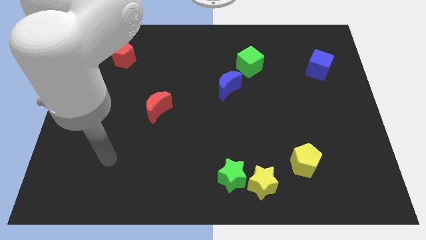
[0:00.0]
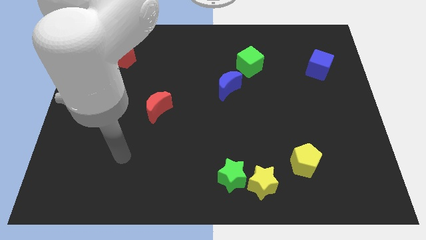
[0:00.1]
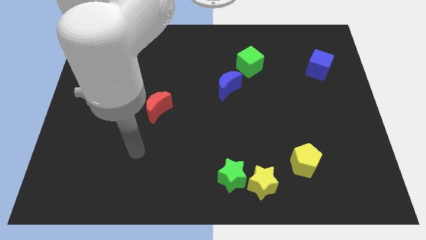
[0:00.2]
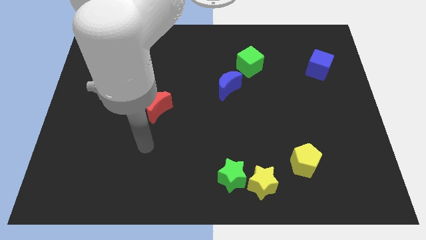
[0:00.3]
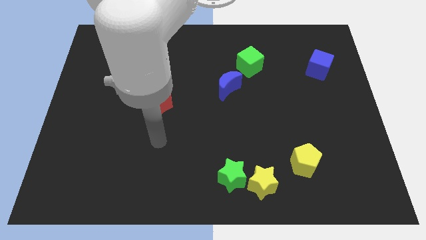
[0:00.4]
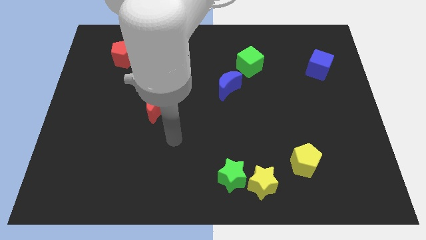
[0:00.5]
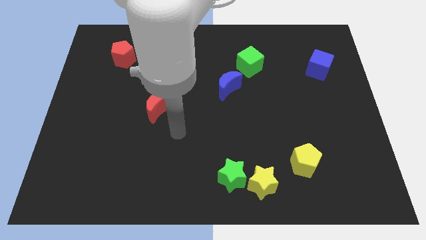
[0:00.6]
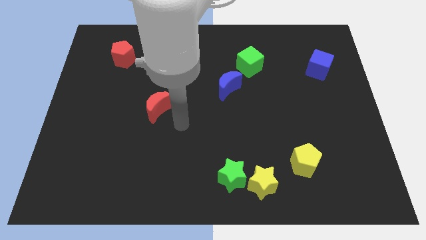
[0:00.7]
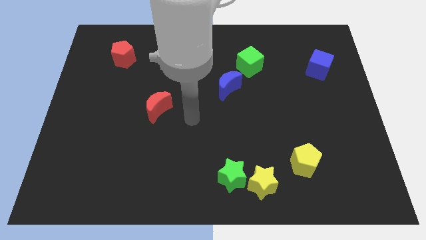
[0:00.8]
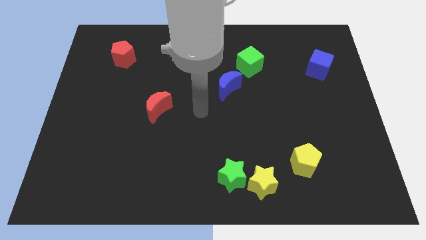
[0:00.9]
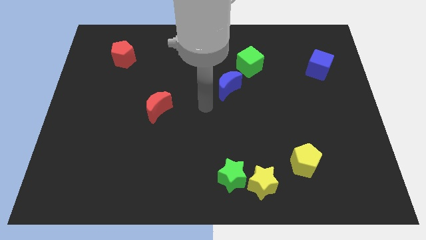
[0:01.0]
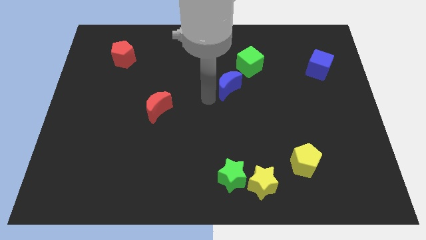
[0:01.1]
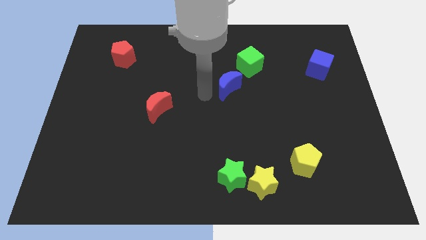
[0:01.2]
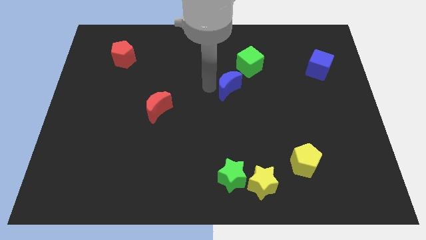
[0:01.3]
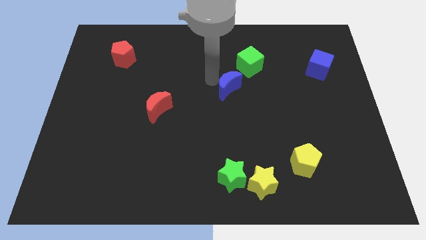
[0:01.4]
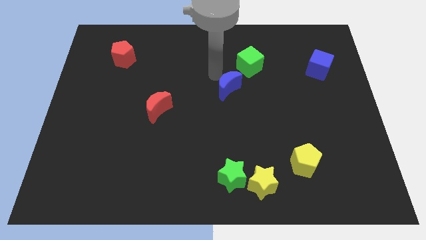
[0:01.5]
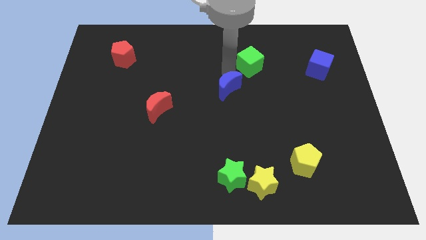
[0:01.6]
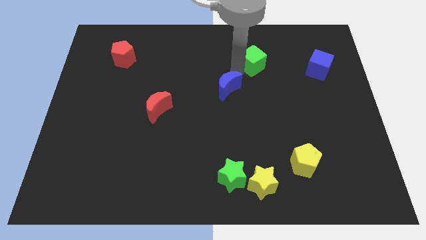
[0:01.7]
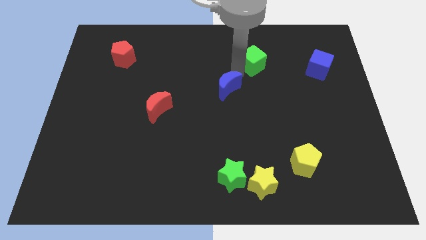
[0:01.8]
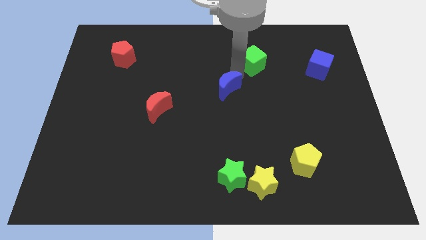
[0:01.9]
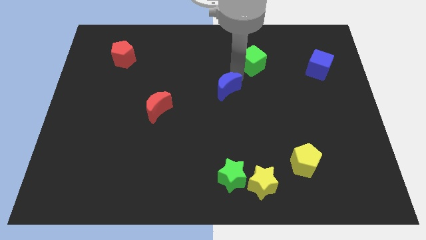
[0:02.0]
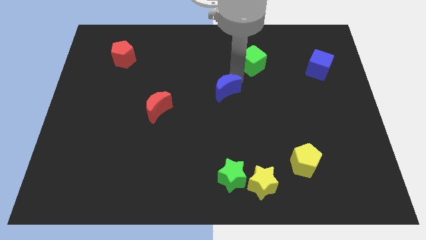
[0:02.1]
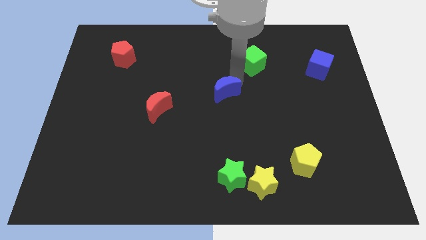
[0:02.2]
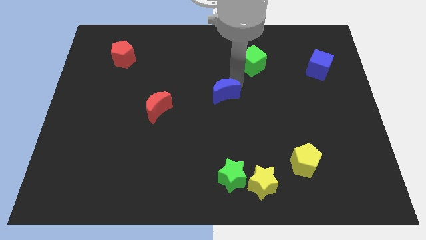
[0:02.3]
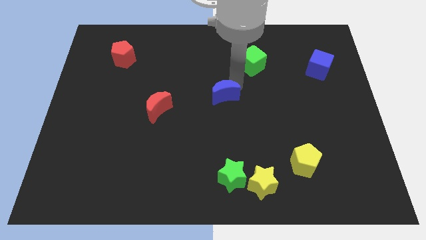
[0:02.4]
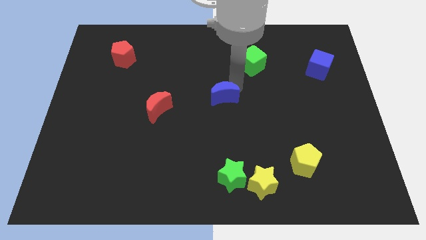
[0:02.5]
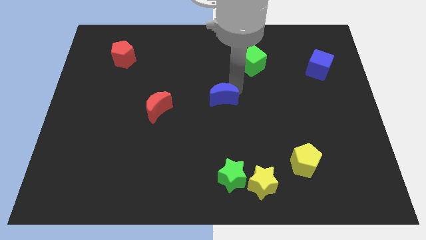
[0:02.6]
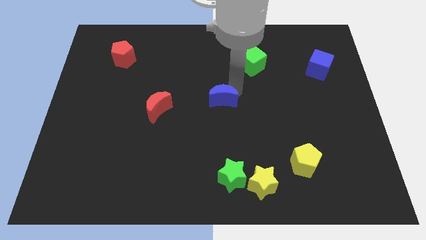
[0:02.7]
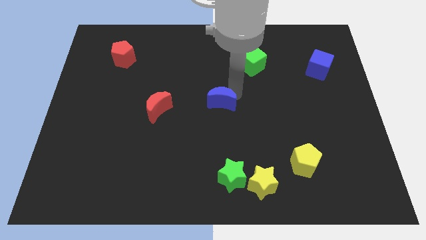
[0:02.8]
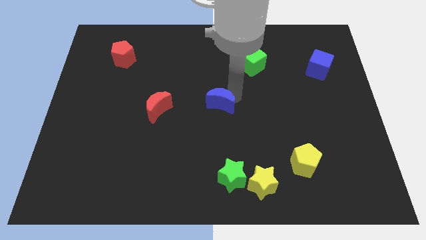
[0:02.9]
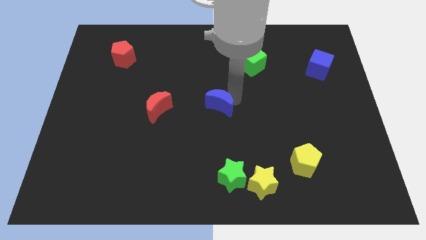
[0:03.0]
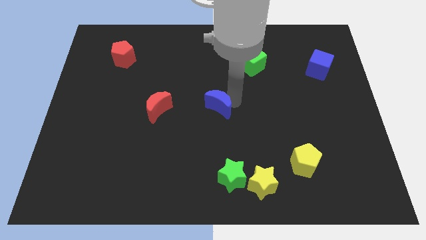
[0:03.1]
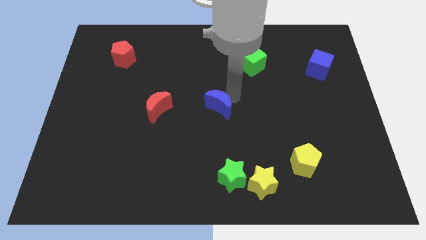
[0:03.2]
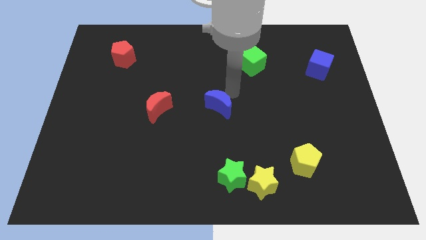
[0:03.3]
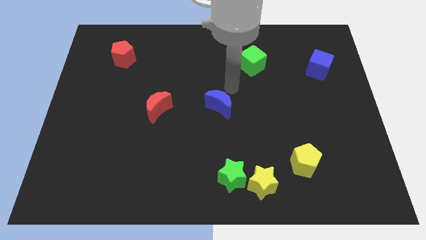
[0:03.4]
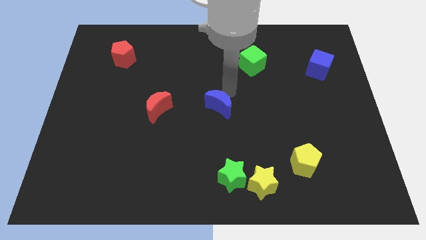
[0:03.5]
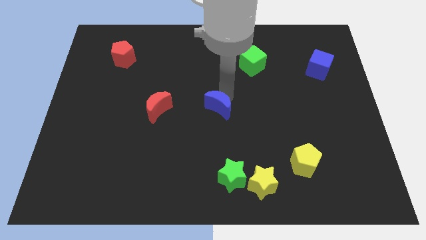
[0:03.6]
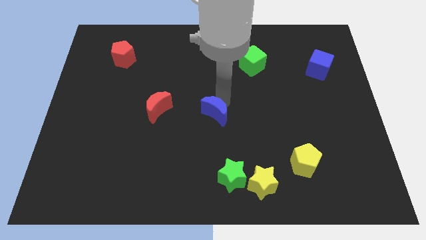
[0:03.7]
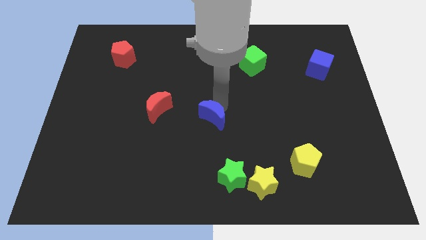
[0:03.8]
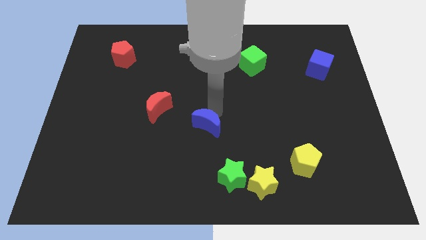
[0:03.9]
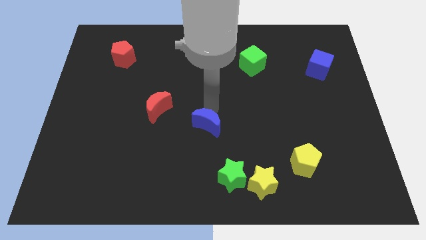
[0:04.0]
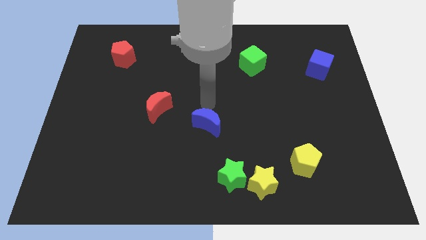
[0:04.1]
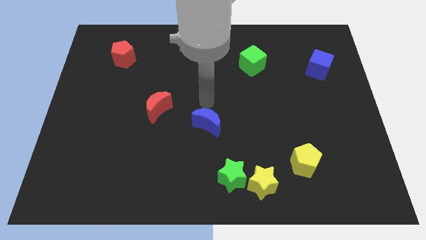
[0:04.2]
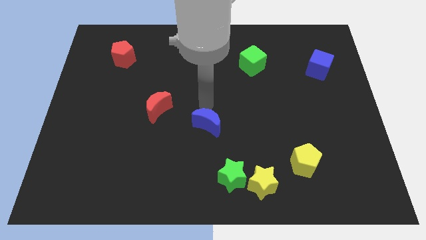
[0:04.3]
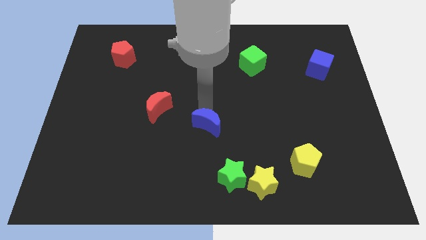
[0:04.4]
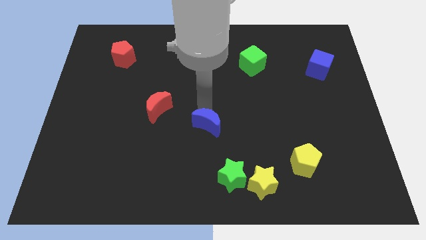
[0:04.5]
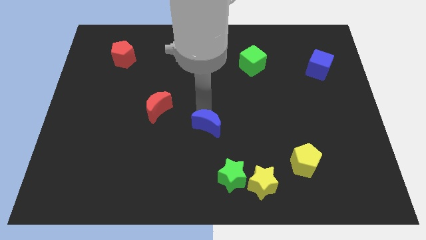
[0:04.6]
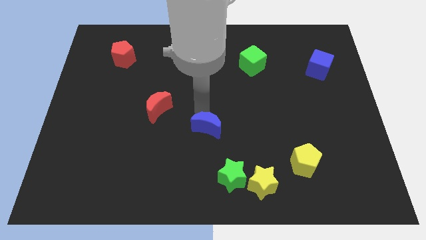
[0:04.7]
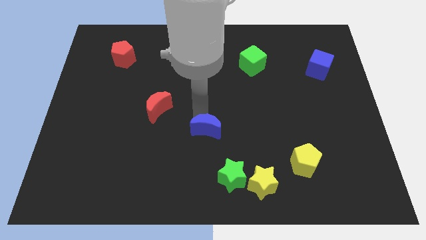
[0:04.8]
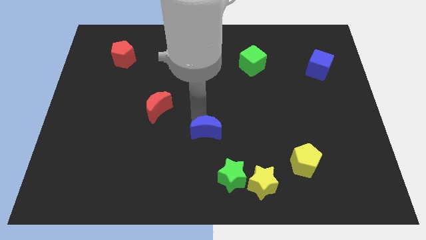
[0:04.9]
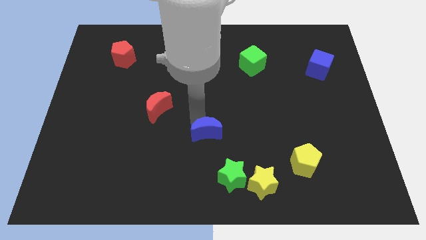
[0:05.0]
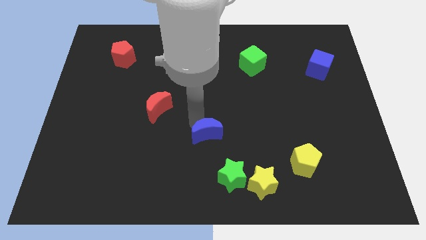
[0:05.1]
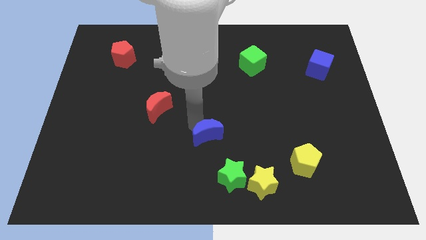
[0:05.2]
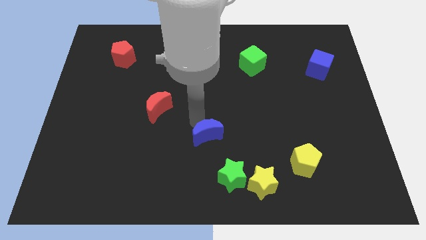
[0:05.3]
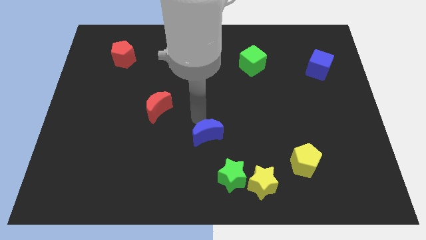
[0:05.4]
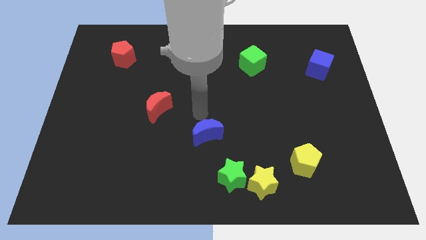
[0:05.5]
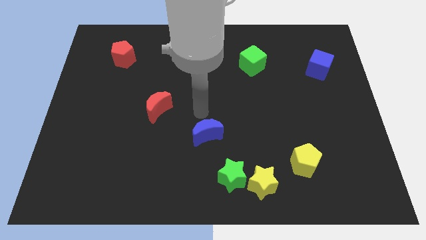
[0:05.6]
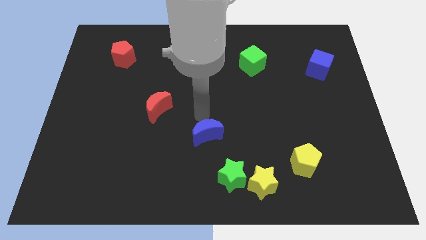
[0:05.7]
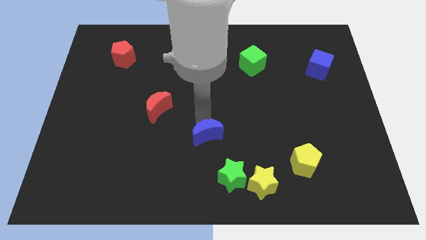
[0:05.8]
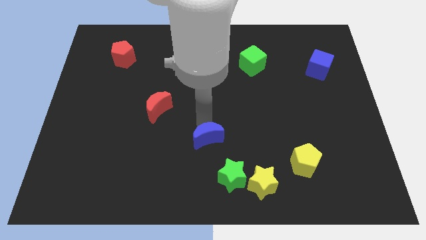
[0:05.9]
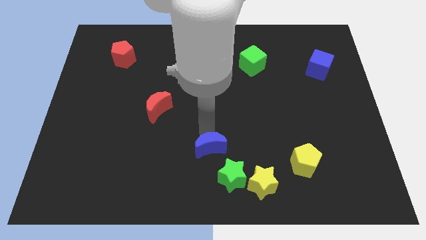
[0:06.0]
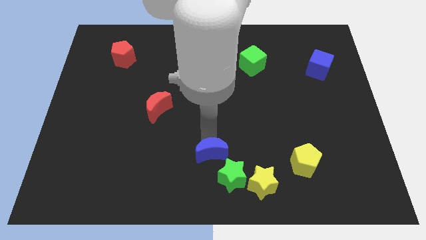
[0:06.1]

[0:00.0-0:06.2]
put the blue moon to the bottom

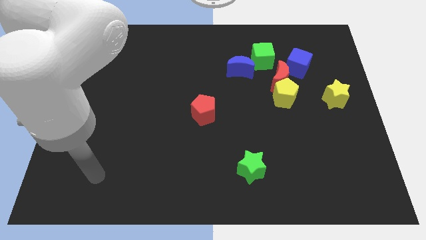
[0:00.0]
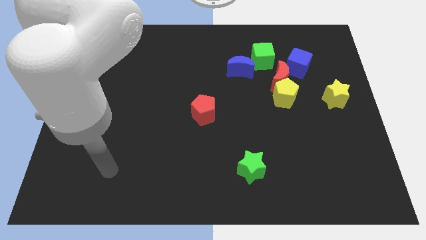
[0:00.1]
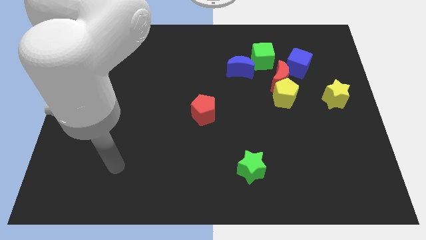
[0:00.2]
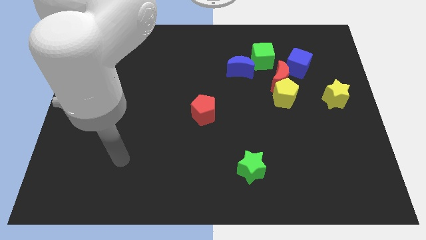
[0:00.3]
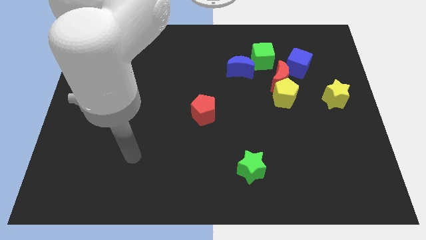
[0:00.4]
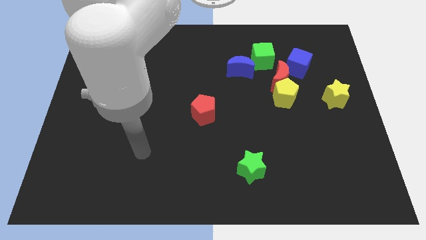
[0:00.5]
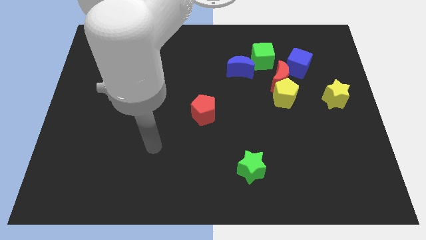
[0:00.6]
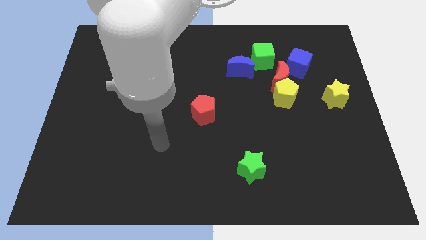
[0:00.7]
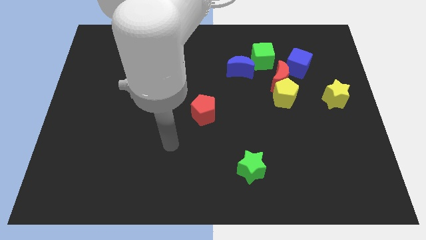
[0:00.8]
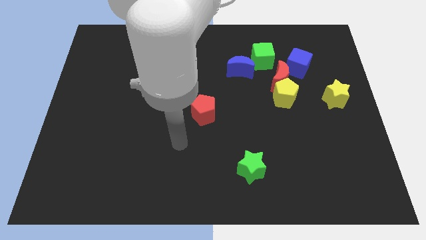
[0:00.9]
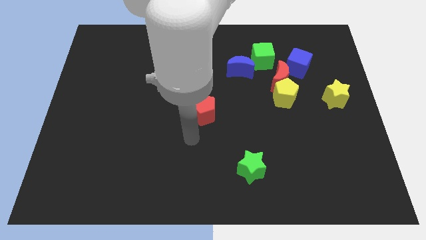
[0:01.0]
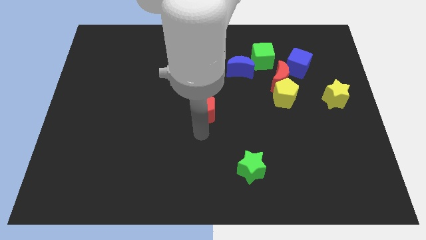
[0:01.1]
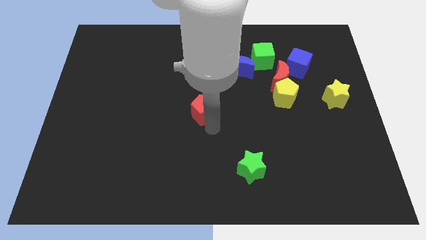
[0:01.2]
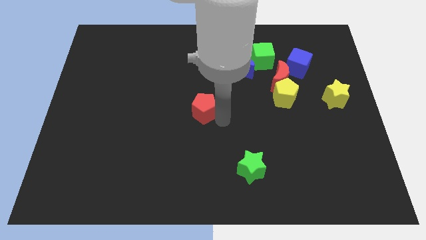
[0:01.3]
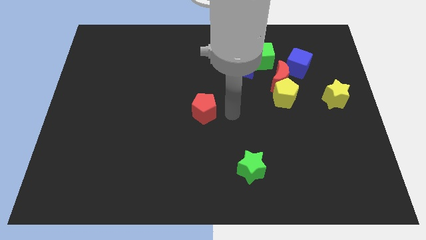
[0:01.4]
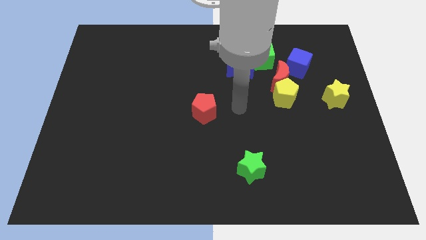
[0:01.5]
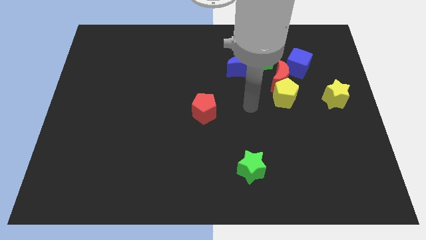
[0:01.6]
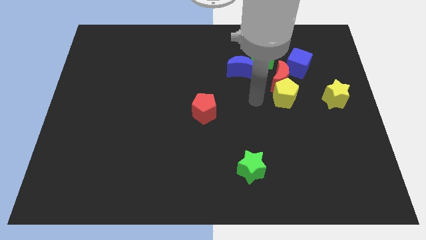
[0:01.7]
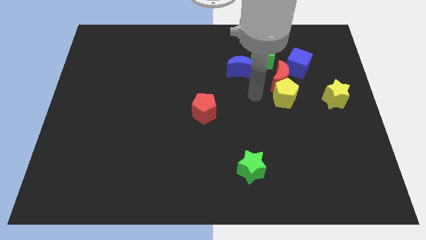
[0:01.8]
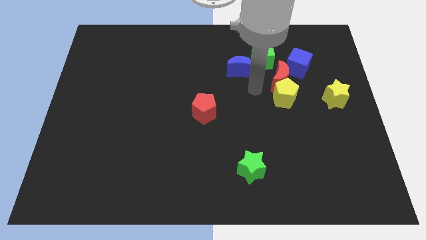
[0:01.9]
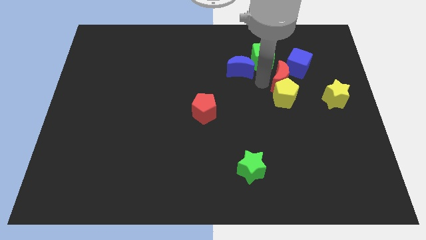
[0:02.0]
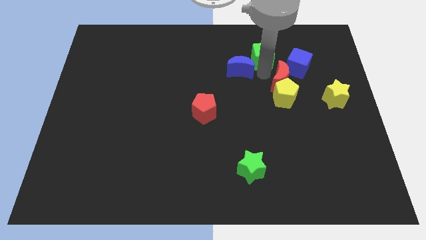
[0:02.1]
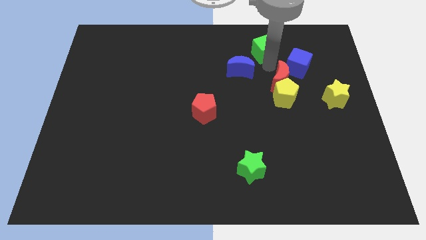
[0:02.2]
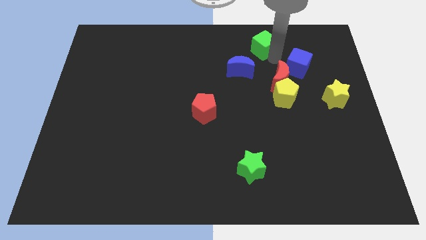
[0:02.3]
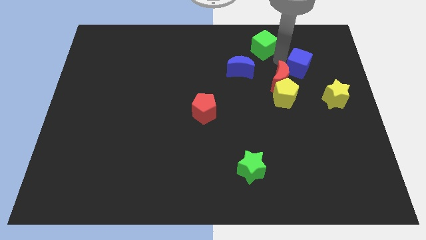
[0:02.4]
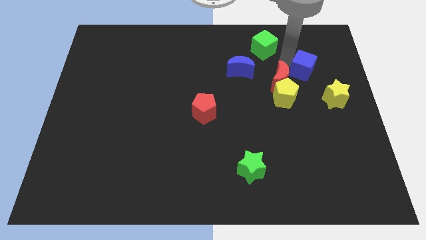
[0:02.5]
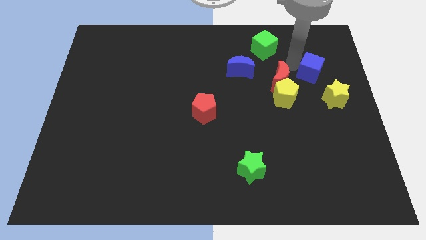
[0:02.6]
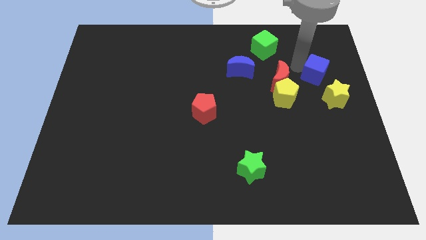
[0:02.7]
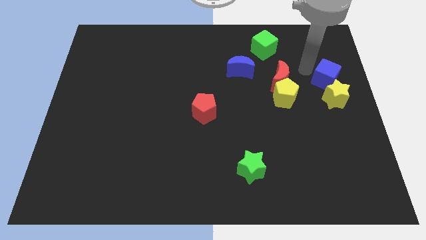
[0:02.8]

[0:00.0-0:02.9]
slide the blue cube to the right side
